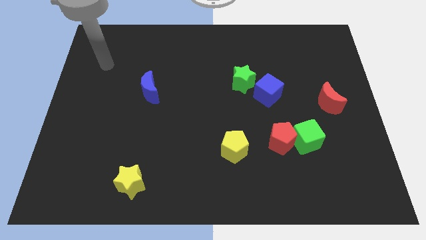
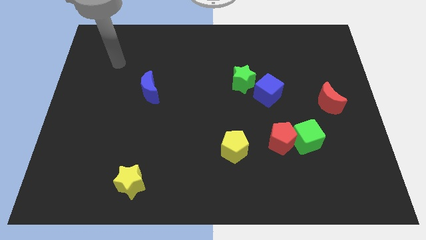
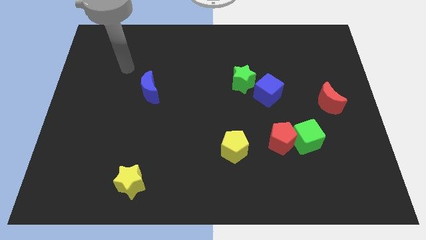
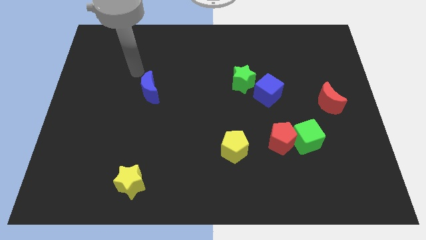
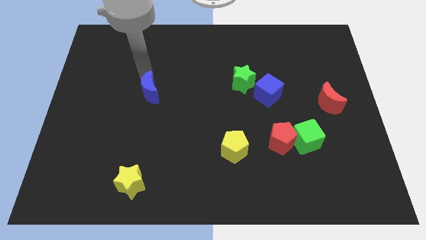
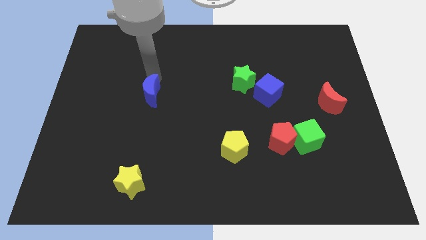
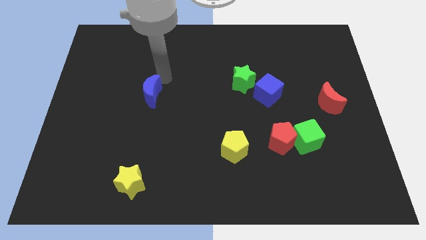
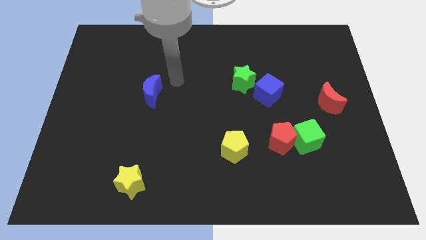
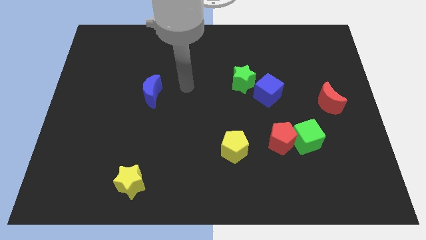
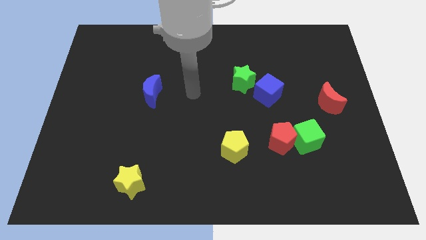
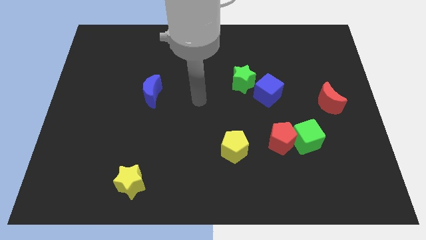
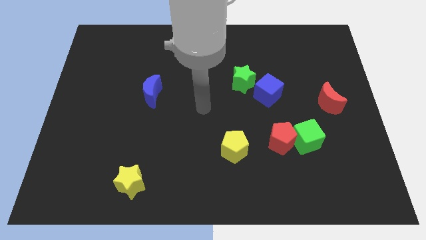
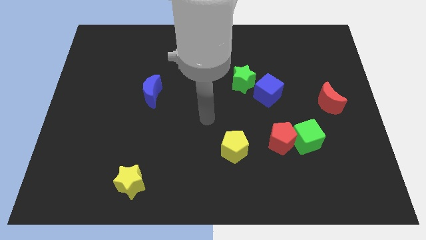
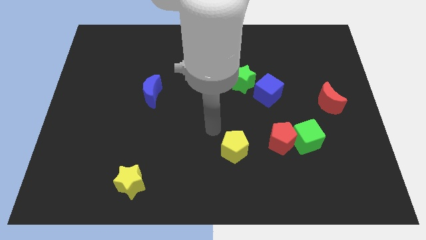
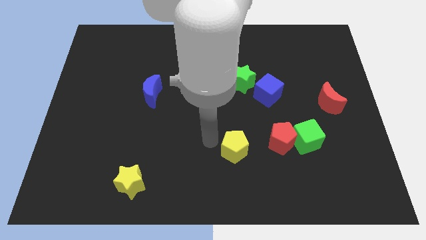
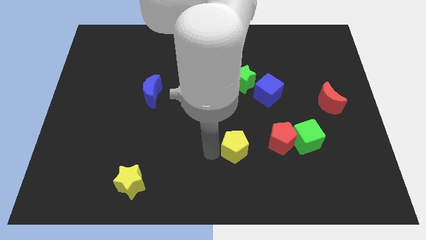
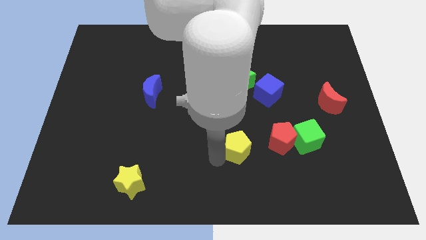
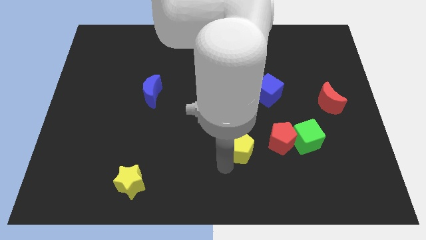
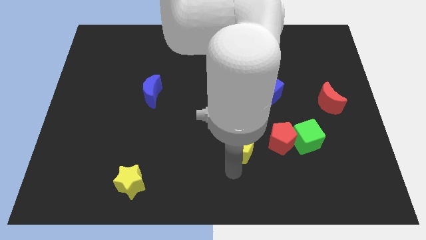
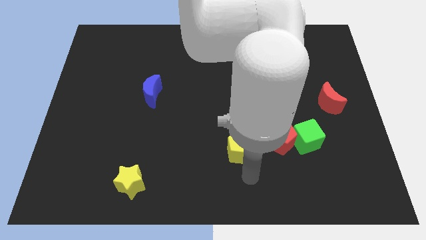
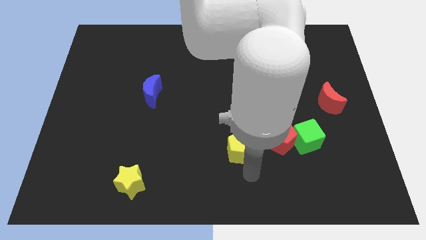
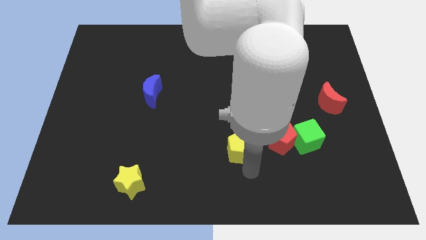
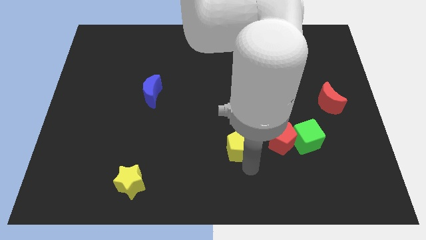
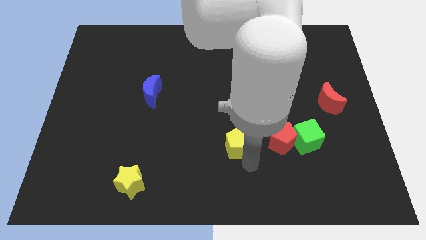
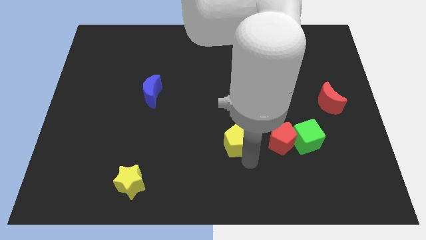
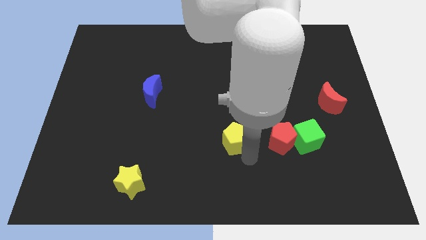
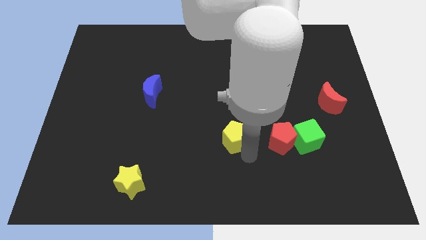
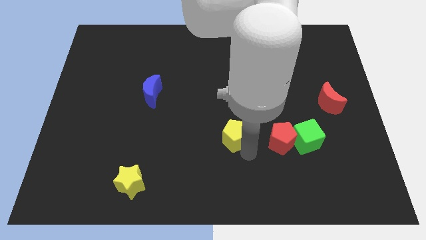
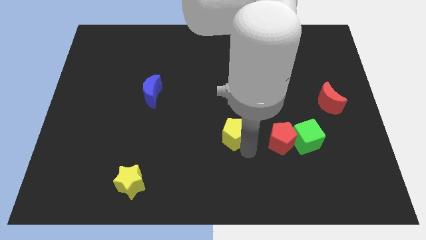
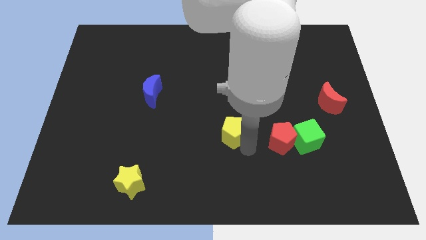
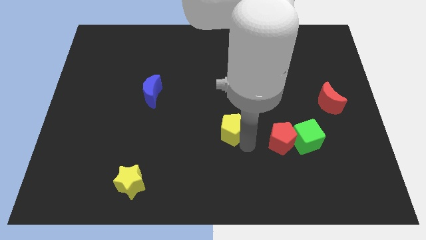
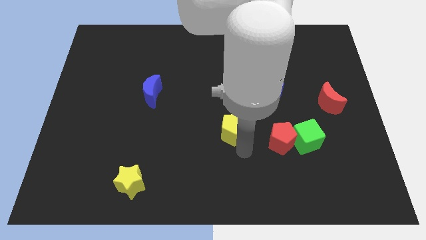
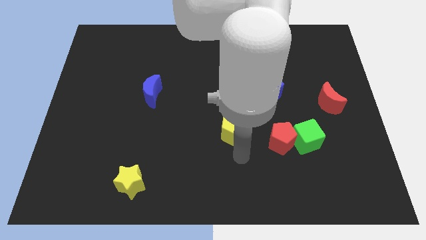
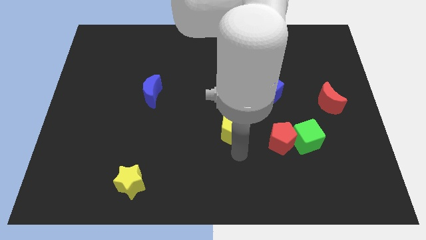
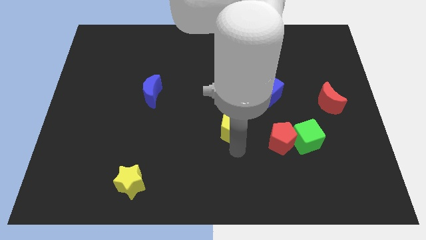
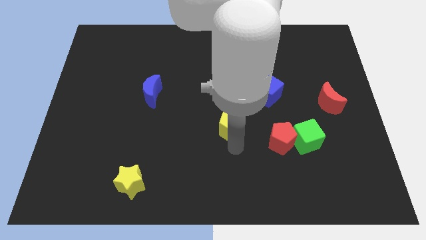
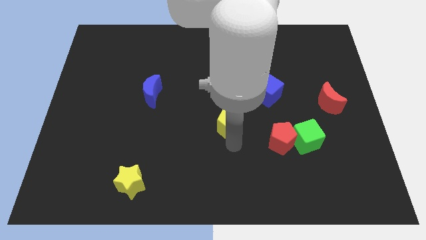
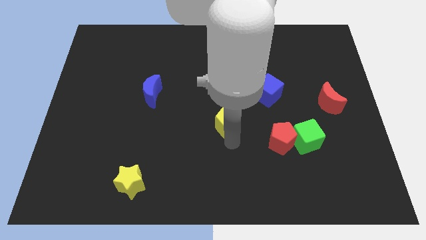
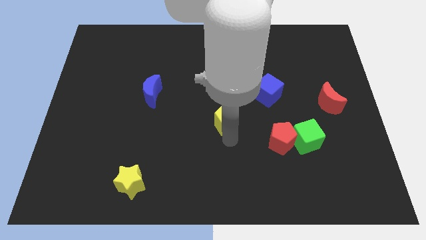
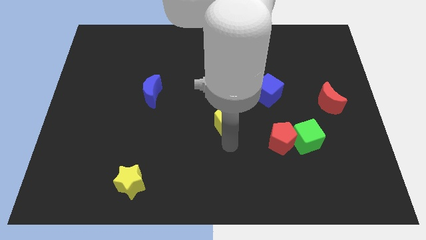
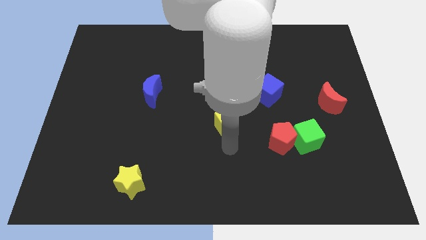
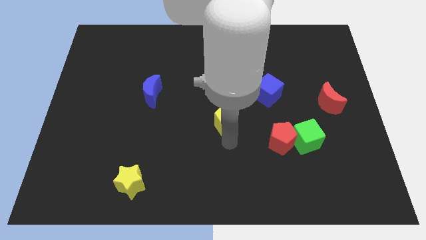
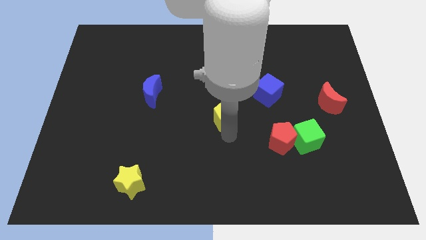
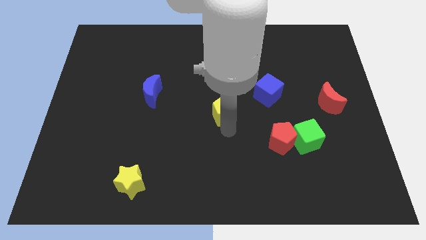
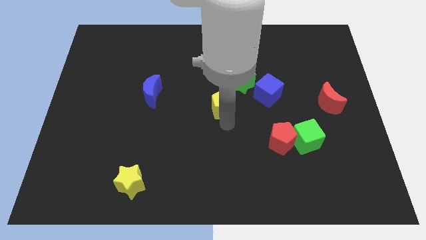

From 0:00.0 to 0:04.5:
push the yellow pentagon left of the blue cube

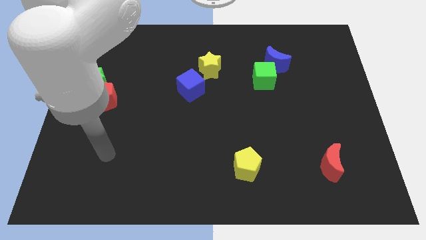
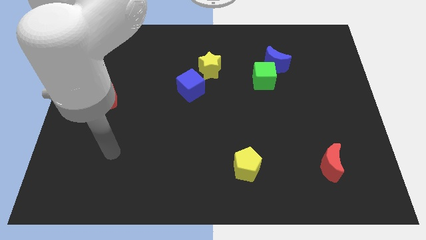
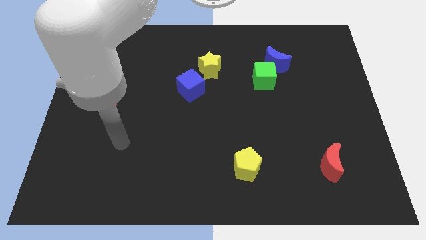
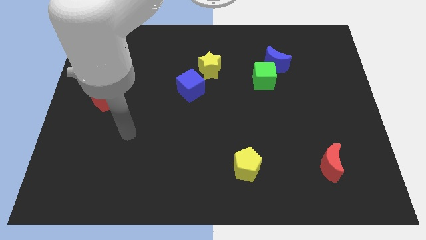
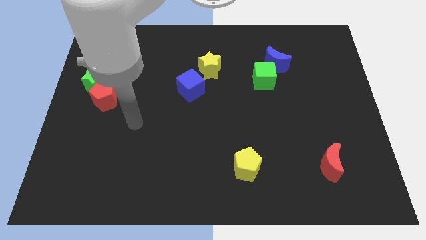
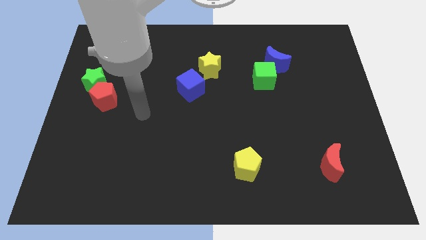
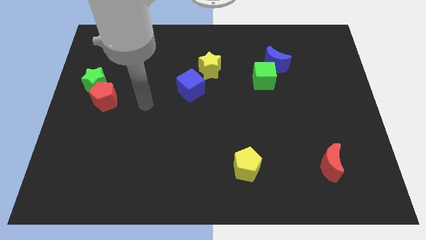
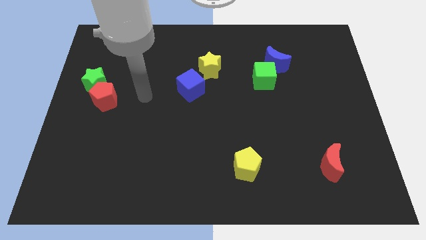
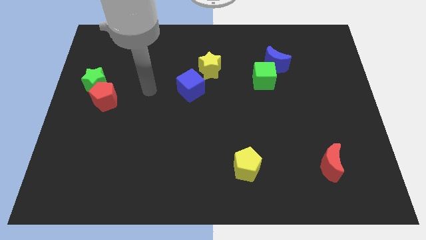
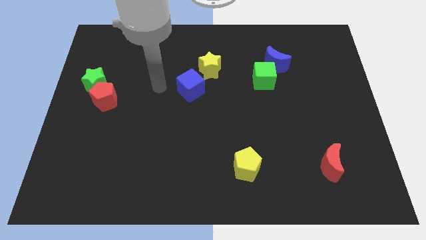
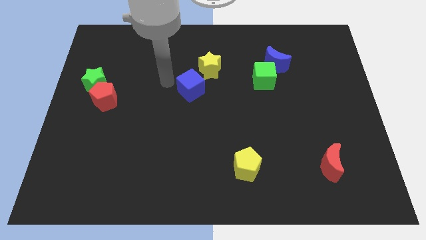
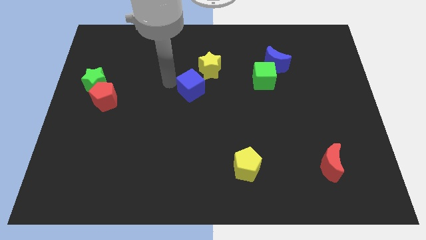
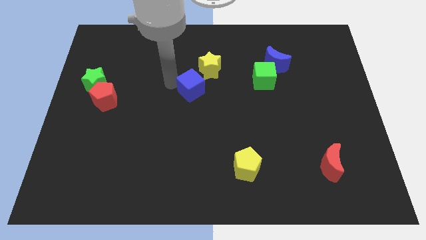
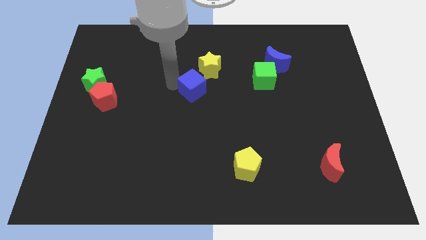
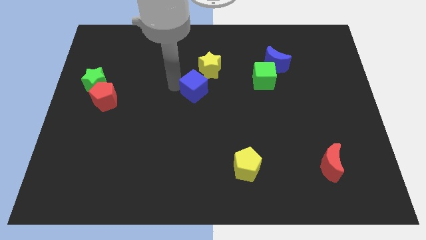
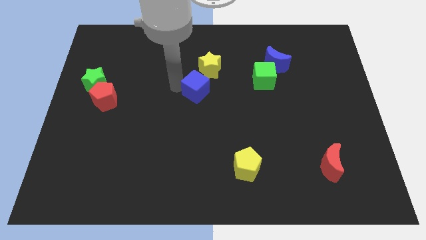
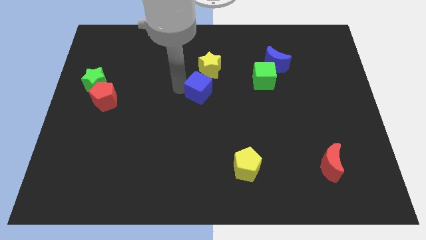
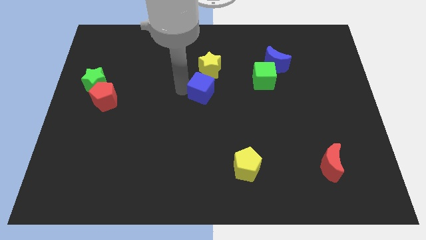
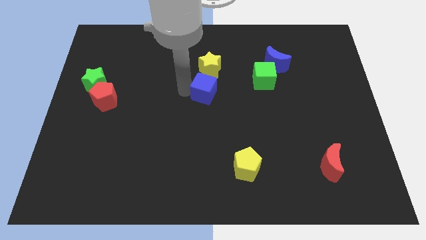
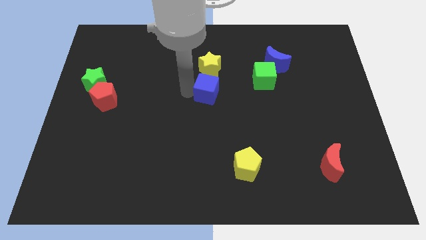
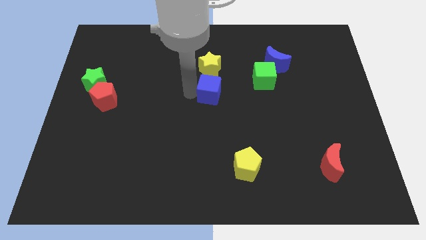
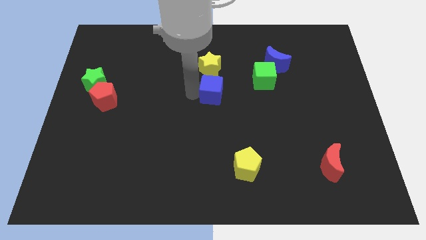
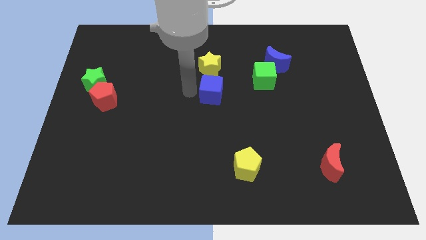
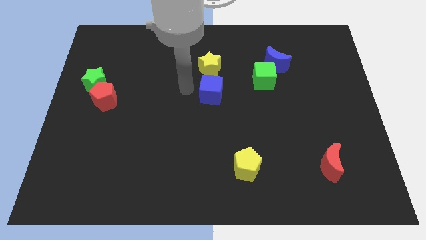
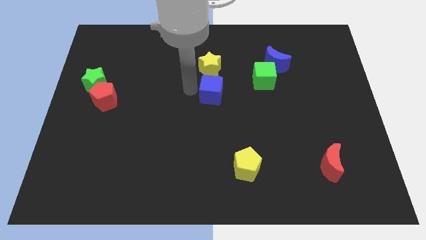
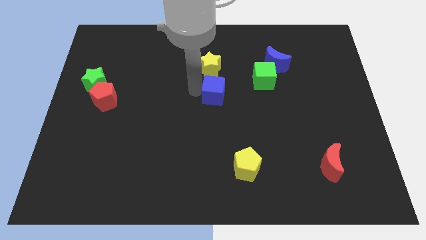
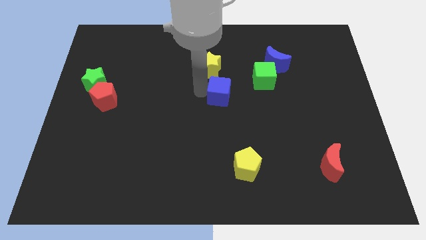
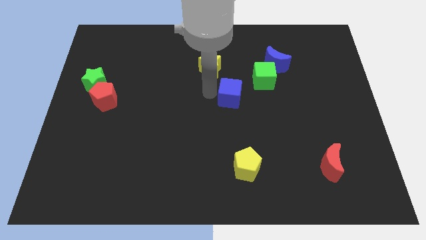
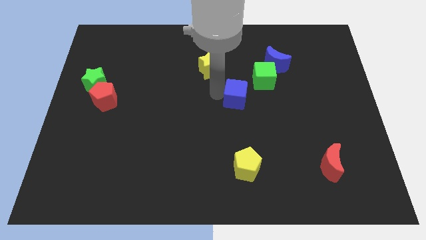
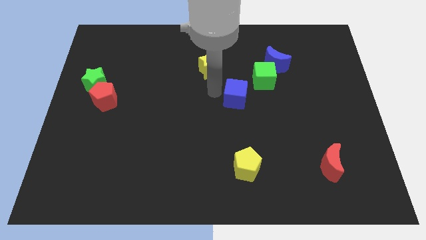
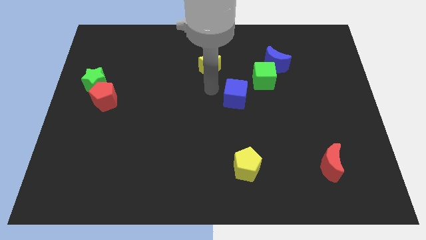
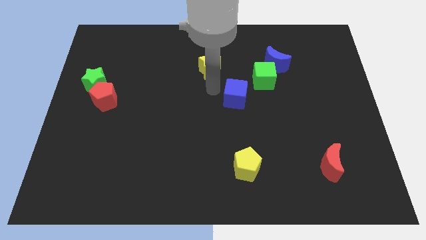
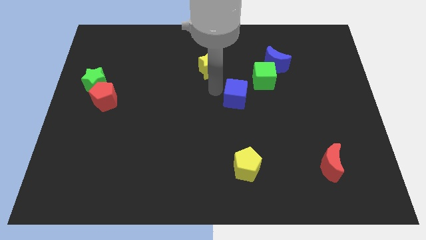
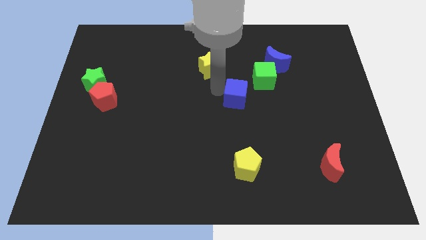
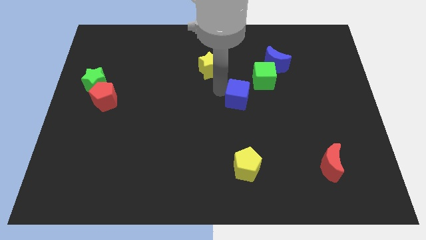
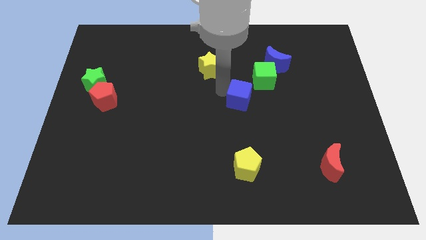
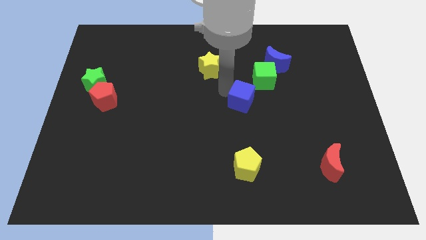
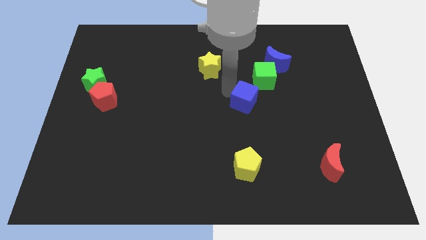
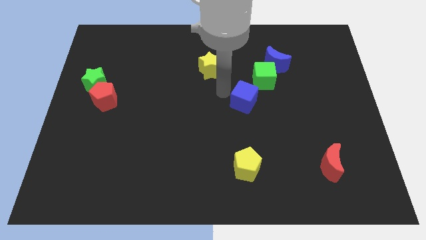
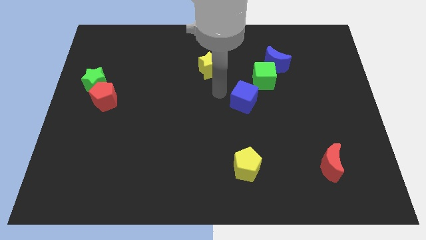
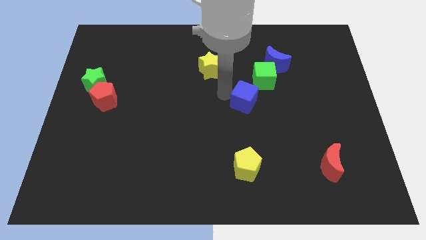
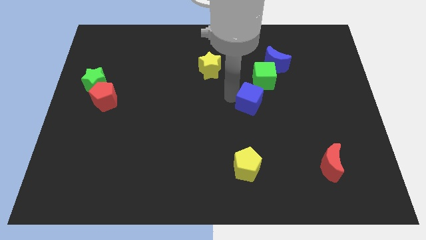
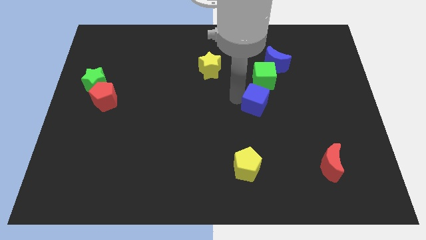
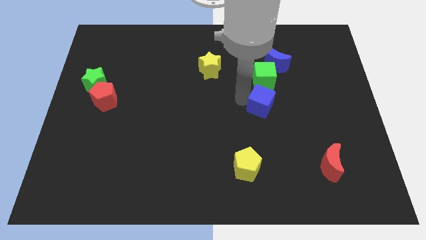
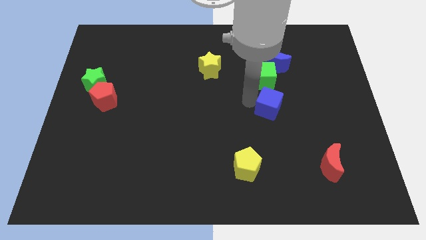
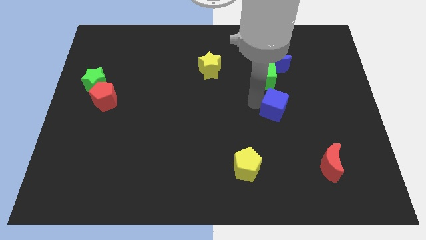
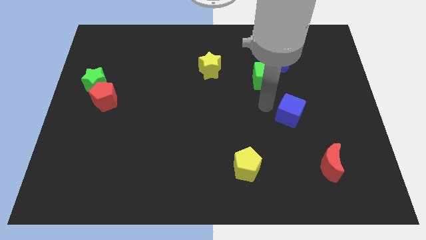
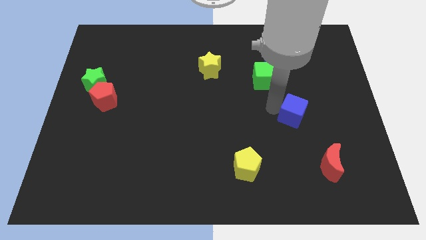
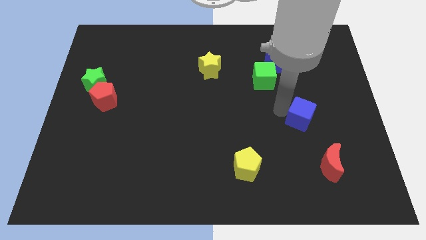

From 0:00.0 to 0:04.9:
put the blue cube to the top side of the red moon
